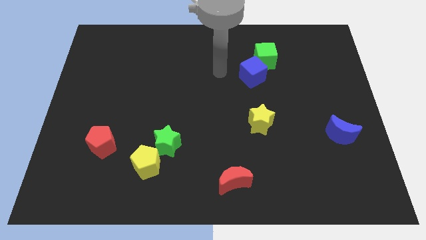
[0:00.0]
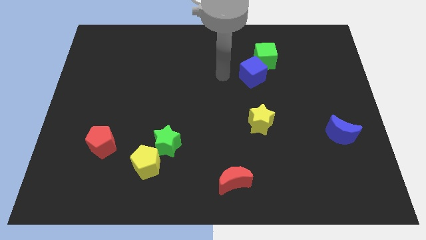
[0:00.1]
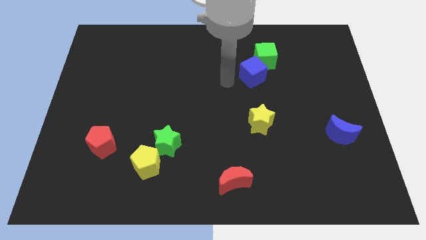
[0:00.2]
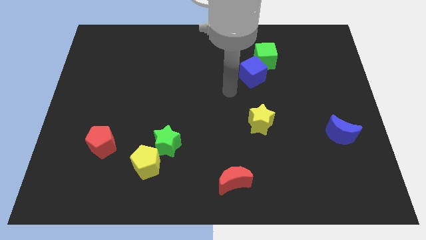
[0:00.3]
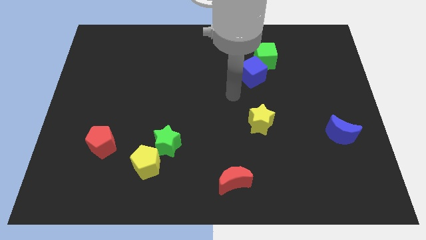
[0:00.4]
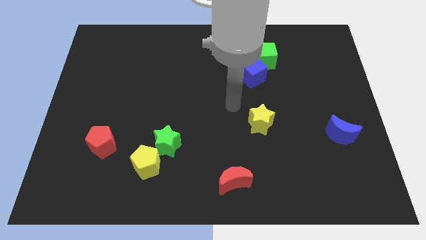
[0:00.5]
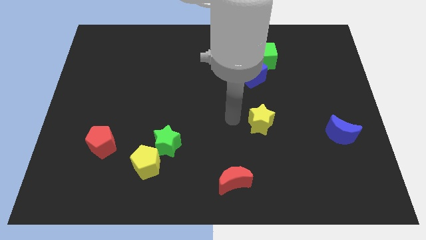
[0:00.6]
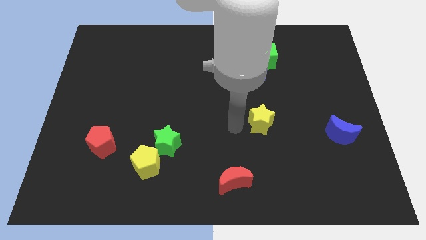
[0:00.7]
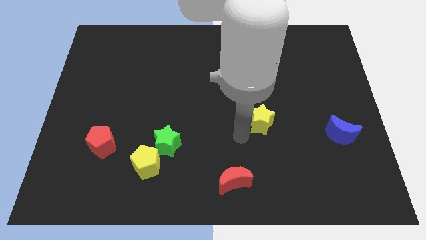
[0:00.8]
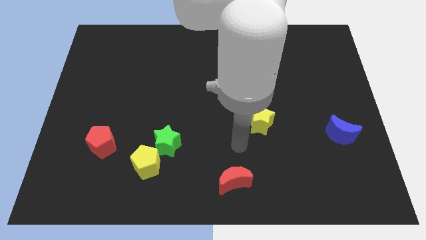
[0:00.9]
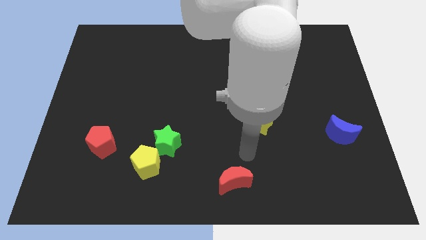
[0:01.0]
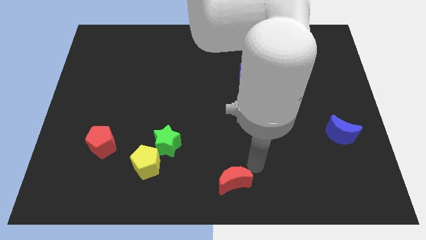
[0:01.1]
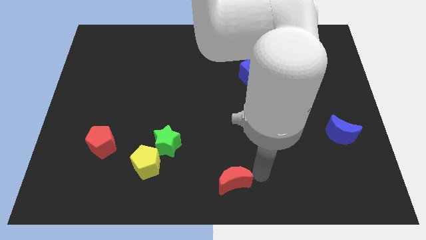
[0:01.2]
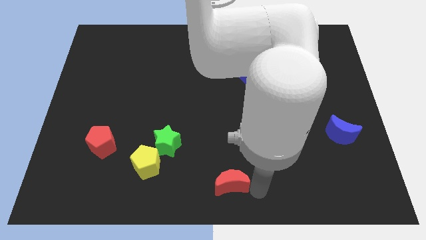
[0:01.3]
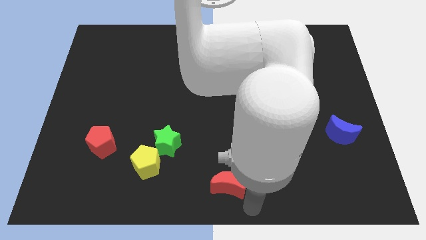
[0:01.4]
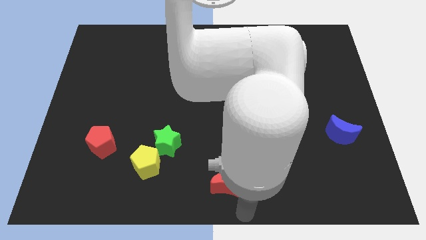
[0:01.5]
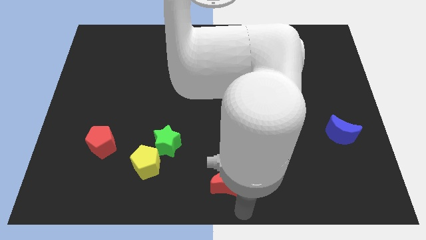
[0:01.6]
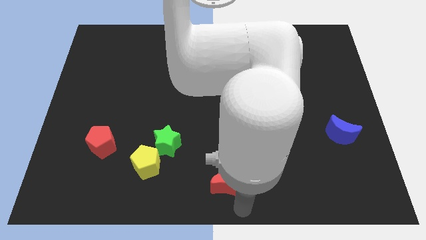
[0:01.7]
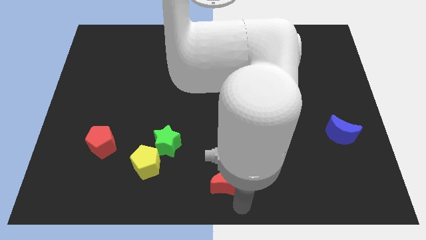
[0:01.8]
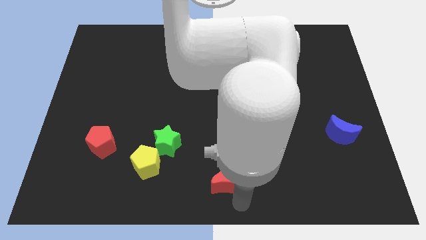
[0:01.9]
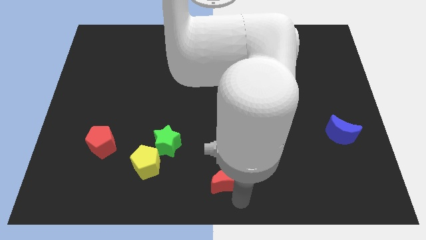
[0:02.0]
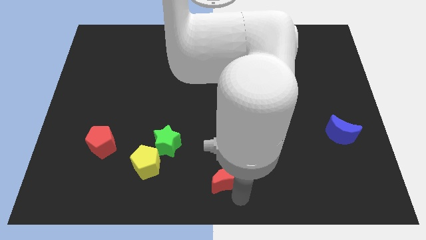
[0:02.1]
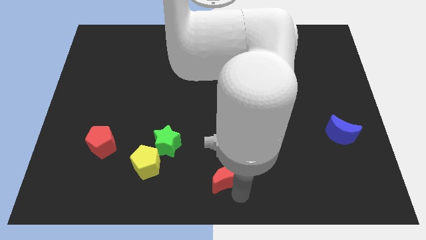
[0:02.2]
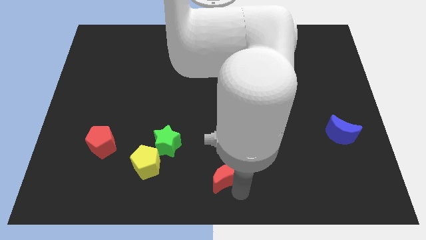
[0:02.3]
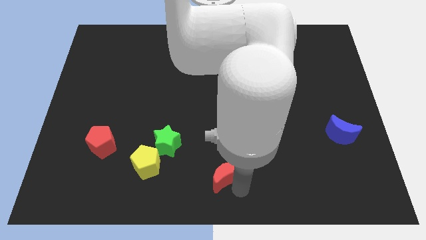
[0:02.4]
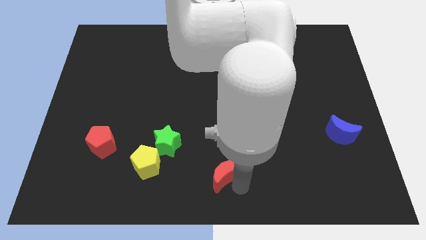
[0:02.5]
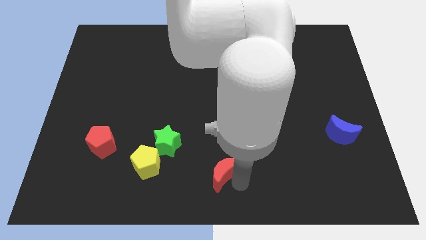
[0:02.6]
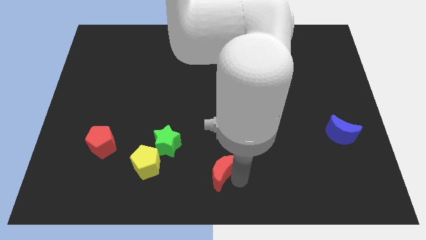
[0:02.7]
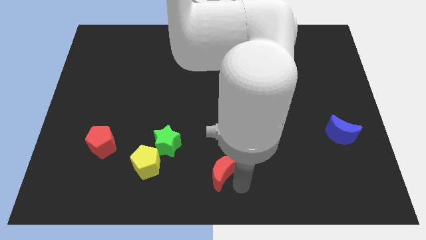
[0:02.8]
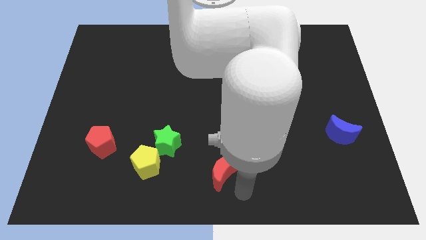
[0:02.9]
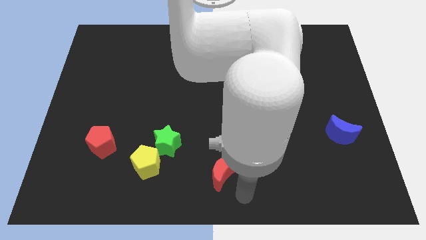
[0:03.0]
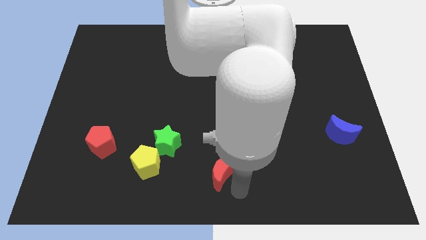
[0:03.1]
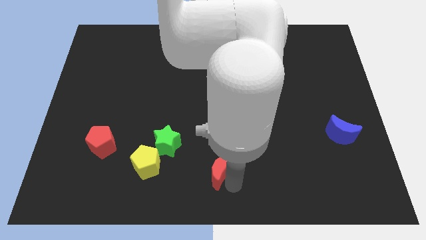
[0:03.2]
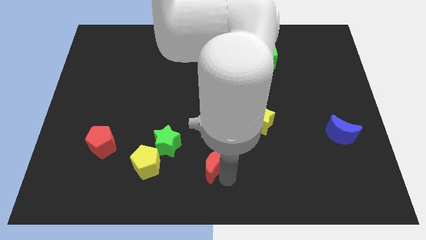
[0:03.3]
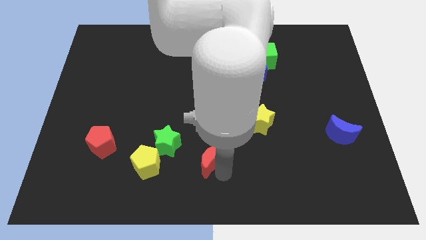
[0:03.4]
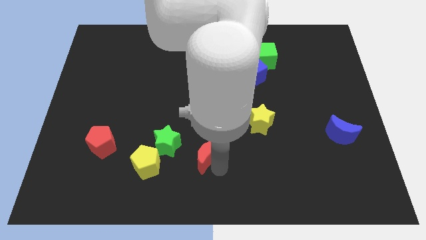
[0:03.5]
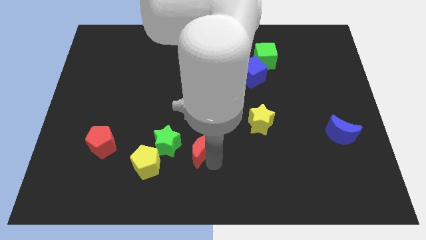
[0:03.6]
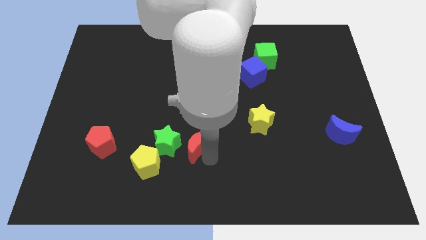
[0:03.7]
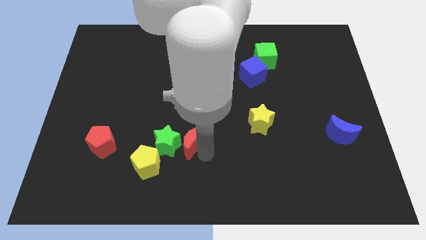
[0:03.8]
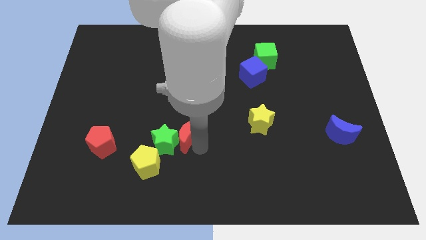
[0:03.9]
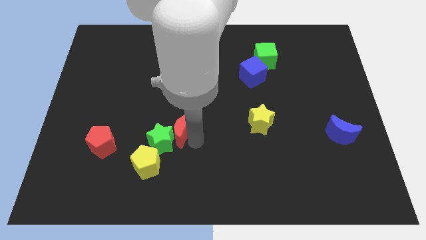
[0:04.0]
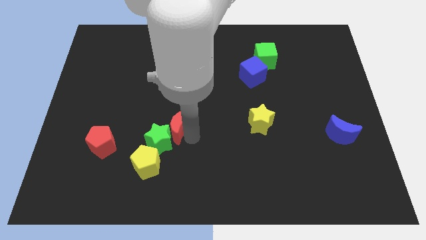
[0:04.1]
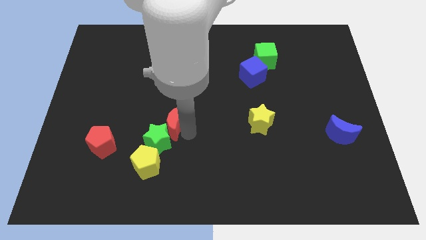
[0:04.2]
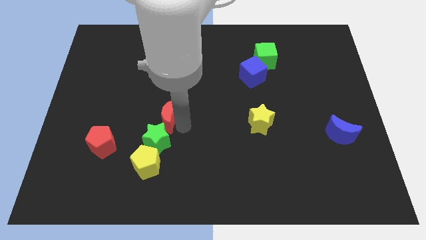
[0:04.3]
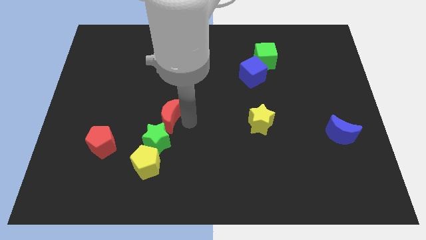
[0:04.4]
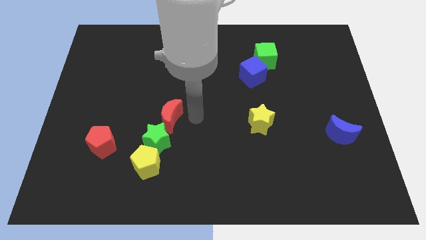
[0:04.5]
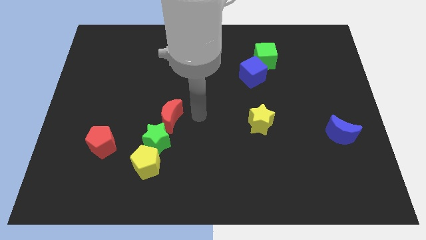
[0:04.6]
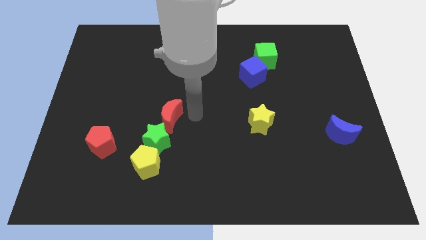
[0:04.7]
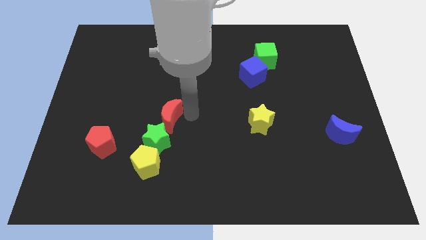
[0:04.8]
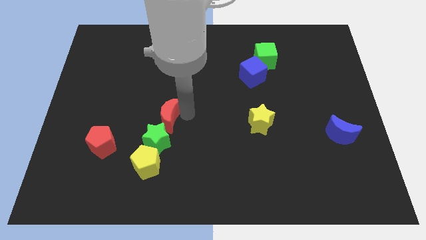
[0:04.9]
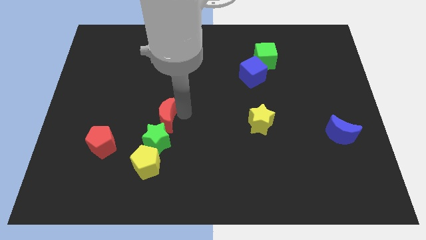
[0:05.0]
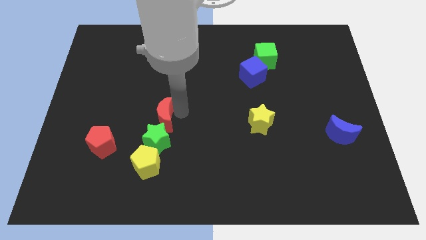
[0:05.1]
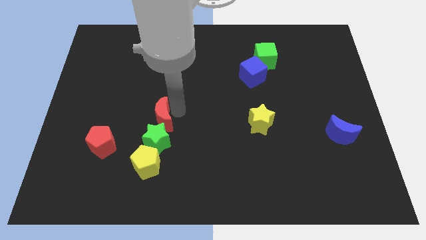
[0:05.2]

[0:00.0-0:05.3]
put the red moon diagonally up and to the left of the green star

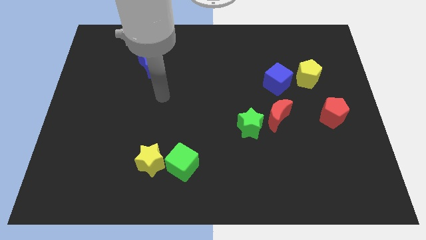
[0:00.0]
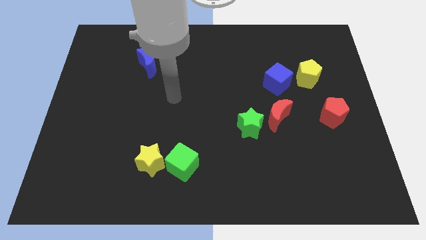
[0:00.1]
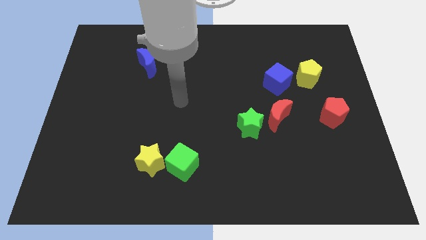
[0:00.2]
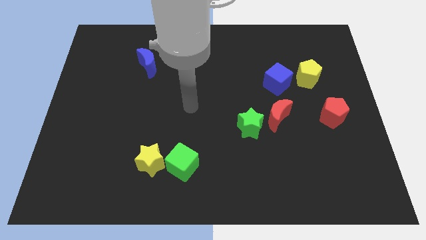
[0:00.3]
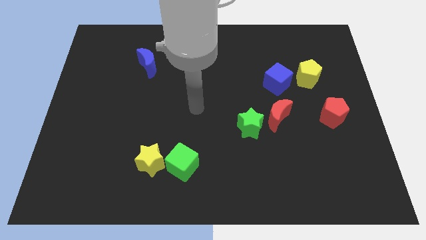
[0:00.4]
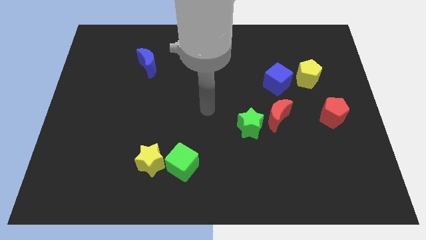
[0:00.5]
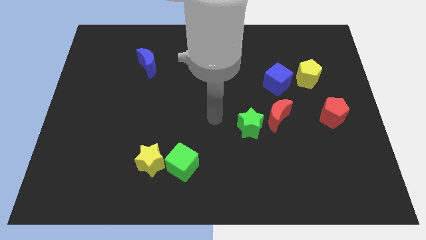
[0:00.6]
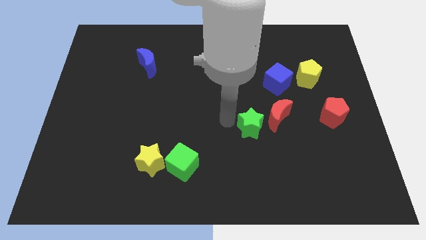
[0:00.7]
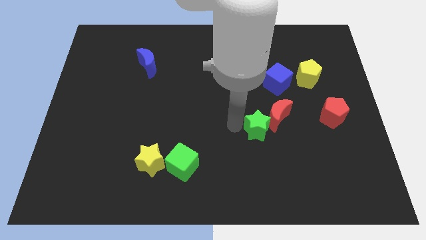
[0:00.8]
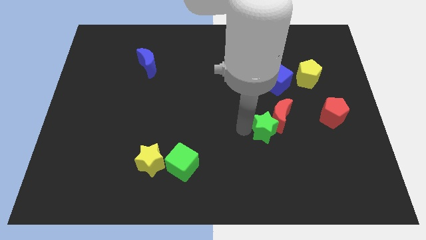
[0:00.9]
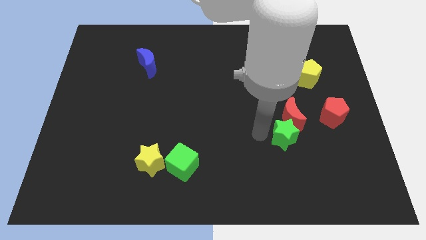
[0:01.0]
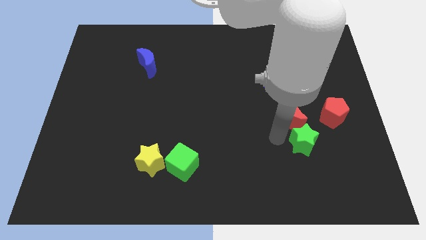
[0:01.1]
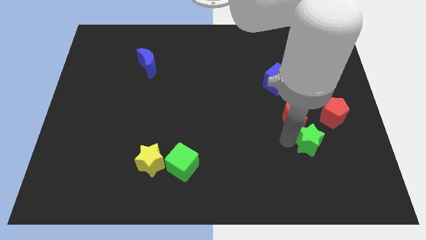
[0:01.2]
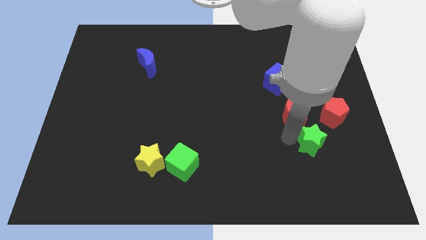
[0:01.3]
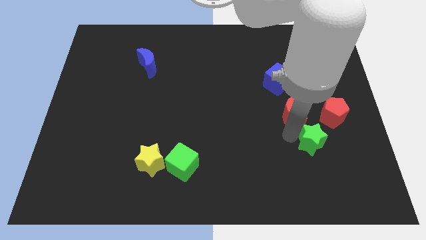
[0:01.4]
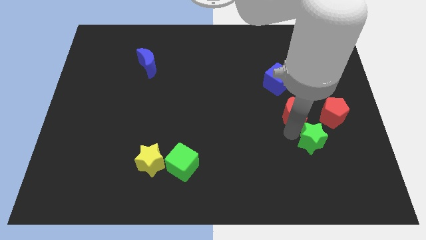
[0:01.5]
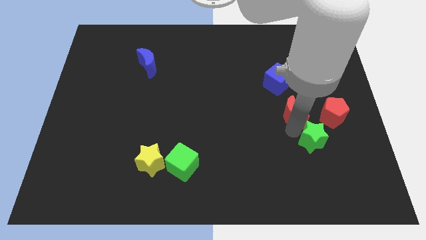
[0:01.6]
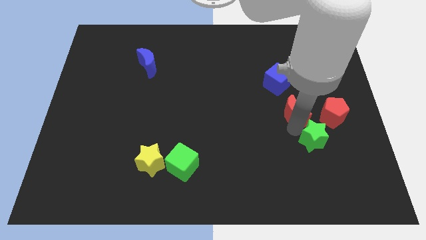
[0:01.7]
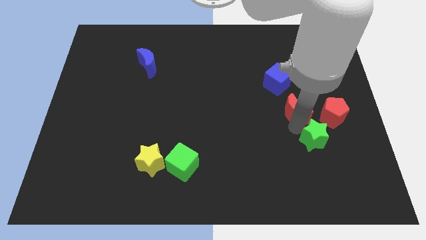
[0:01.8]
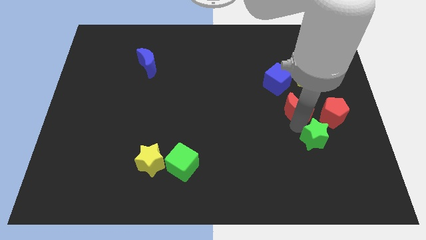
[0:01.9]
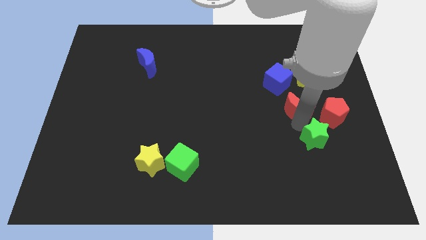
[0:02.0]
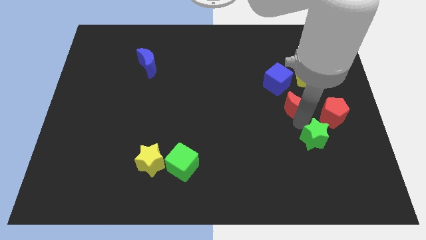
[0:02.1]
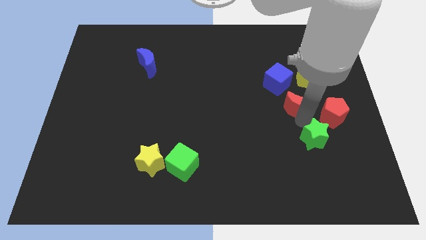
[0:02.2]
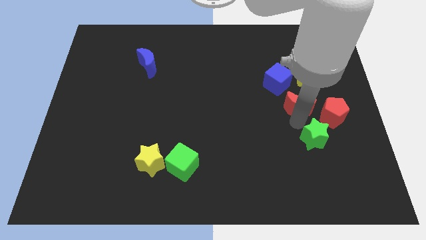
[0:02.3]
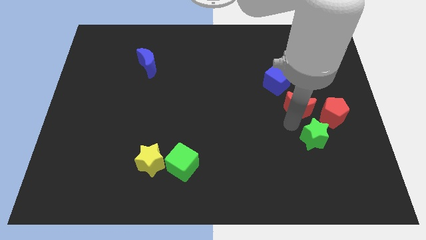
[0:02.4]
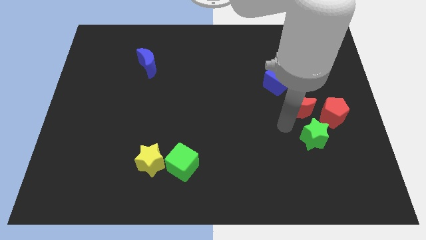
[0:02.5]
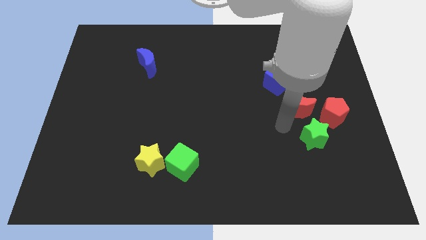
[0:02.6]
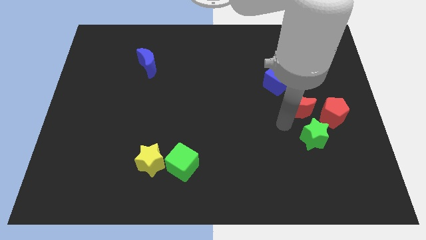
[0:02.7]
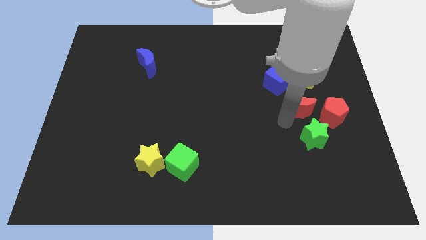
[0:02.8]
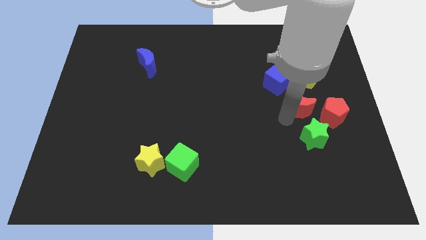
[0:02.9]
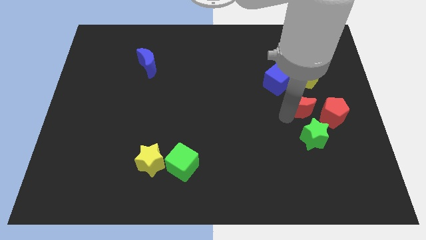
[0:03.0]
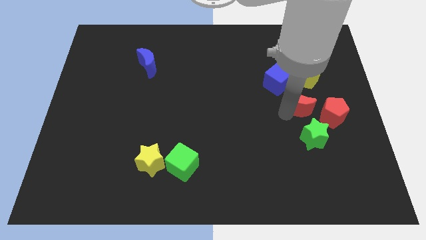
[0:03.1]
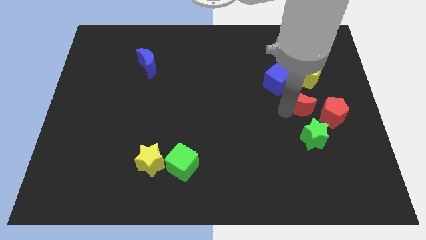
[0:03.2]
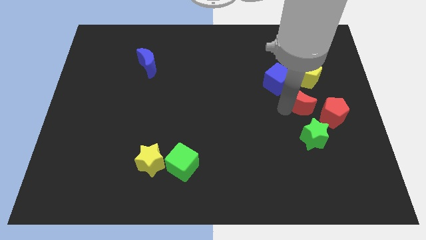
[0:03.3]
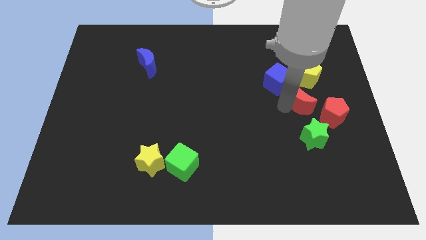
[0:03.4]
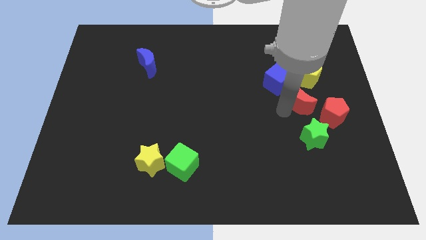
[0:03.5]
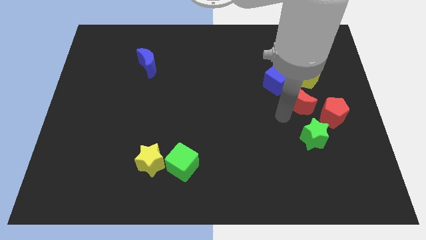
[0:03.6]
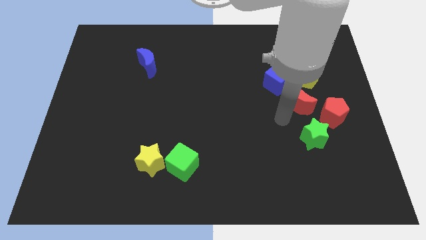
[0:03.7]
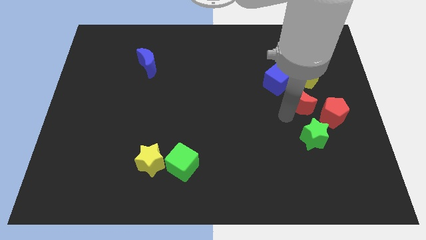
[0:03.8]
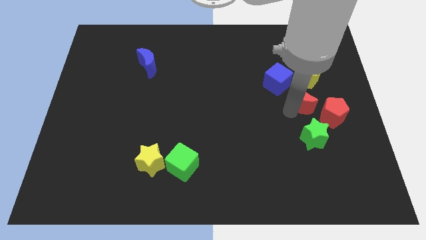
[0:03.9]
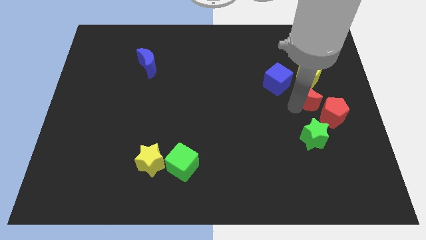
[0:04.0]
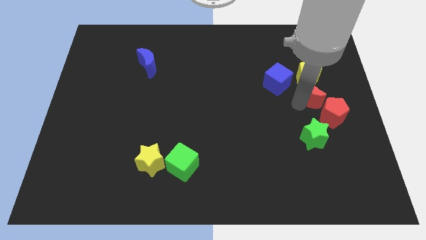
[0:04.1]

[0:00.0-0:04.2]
slide the red moon to the right side of the blue cube
